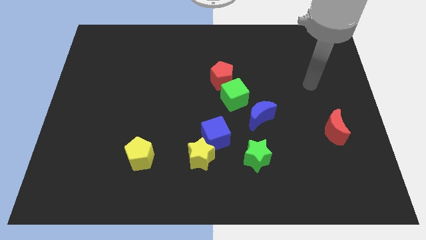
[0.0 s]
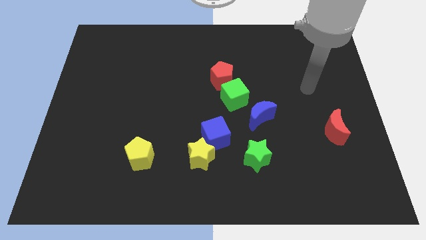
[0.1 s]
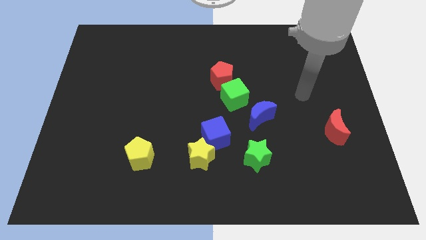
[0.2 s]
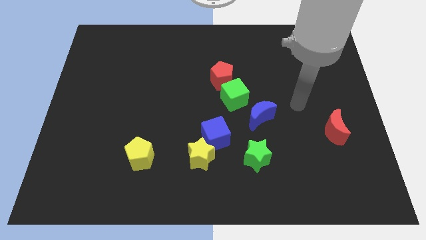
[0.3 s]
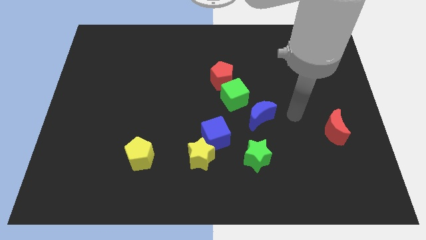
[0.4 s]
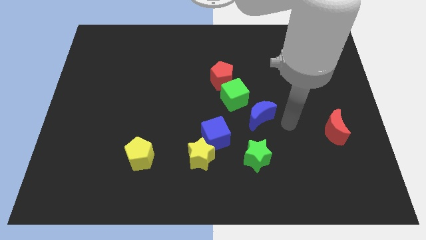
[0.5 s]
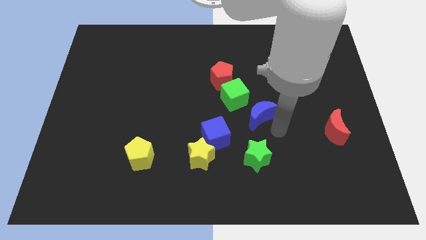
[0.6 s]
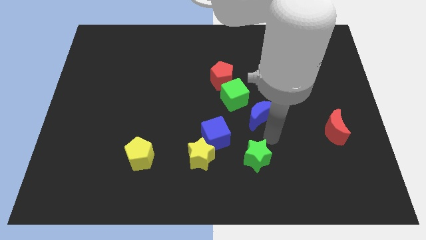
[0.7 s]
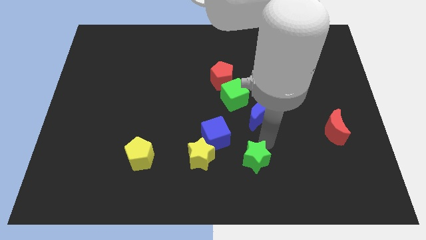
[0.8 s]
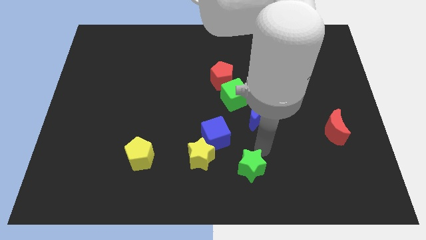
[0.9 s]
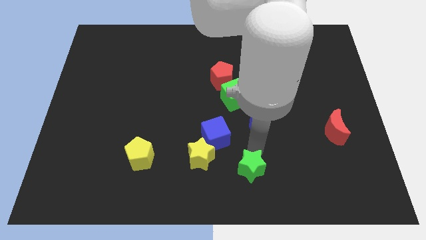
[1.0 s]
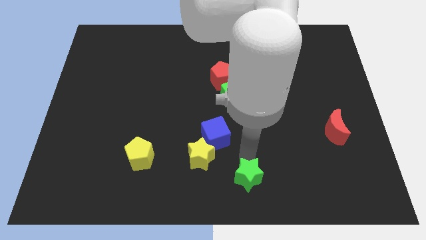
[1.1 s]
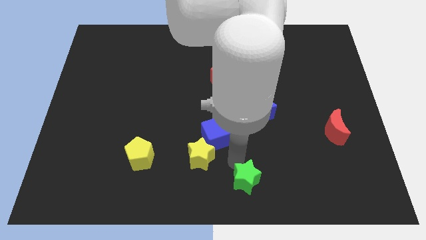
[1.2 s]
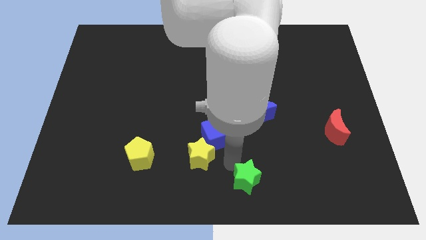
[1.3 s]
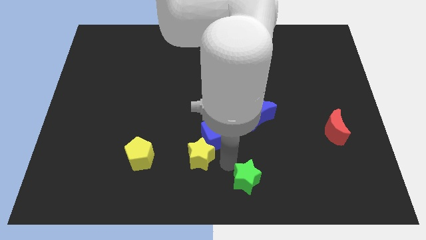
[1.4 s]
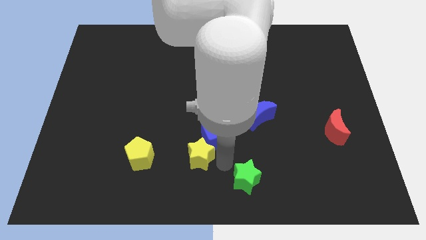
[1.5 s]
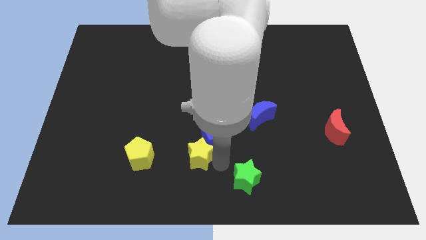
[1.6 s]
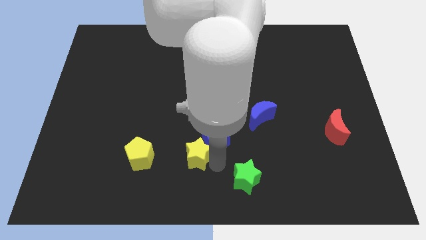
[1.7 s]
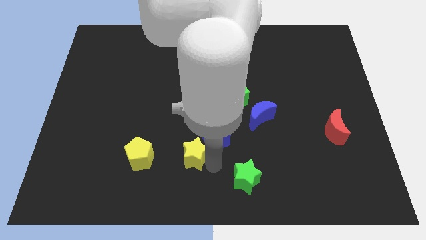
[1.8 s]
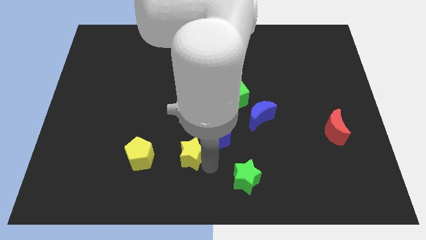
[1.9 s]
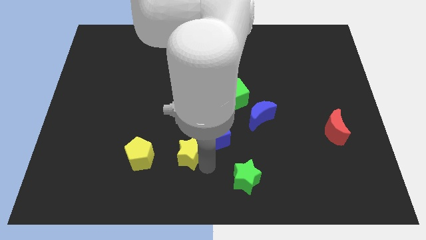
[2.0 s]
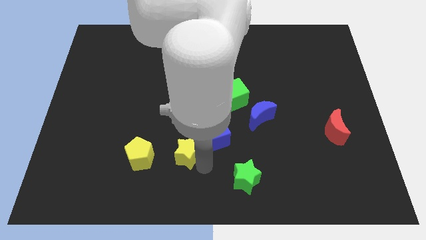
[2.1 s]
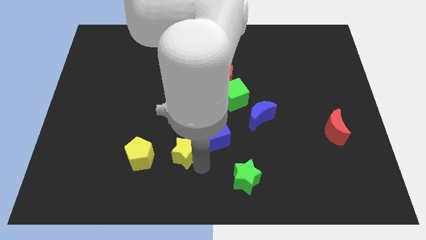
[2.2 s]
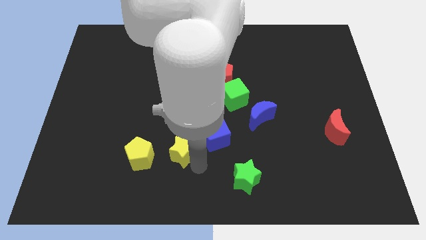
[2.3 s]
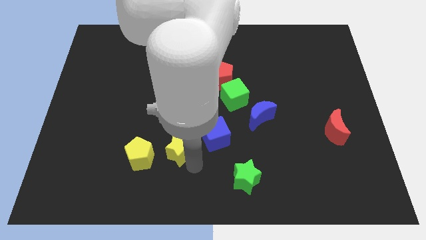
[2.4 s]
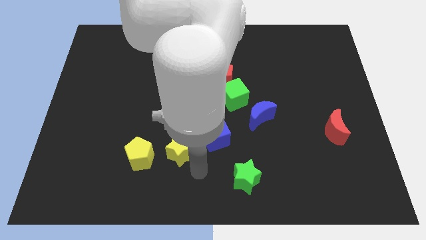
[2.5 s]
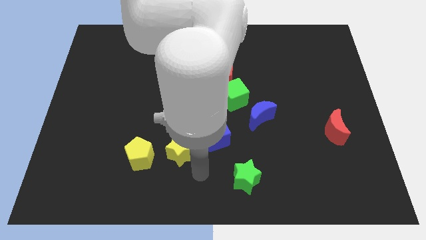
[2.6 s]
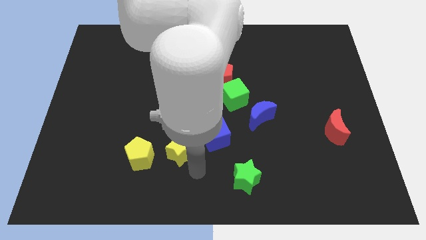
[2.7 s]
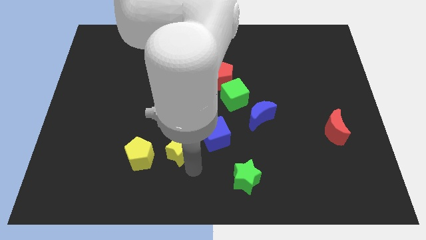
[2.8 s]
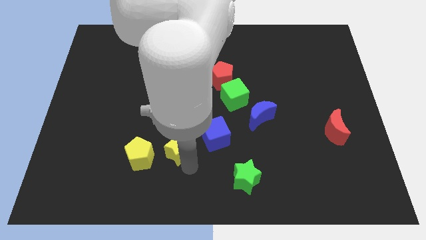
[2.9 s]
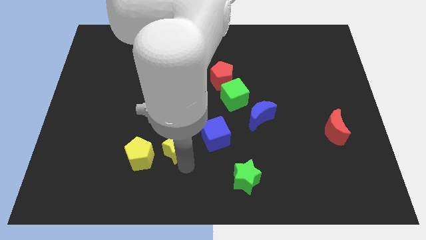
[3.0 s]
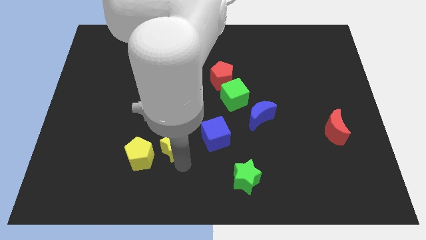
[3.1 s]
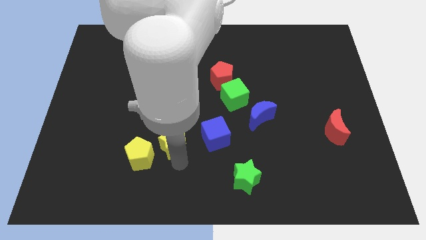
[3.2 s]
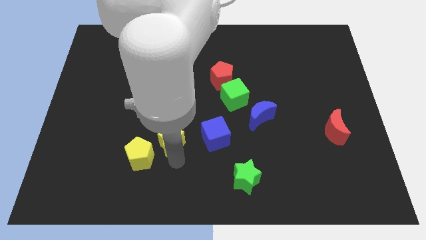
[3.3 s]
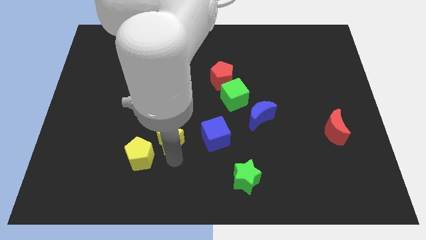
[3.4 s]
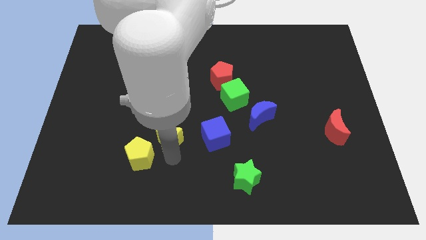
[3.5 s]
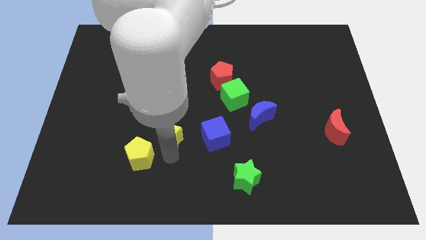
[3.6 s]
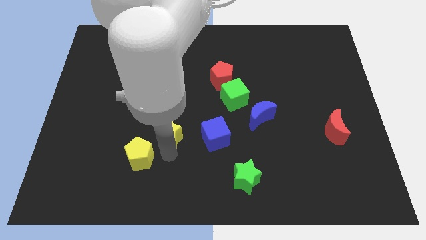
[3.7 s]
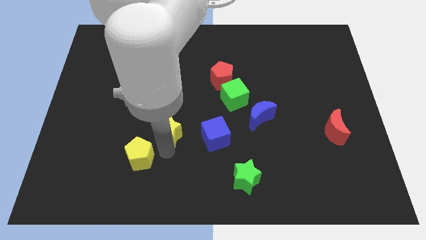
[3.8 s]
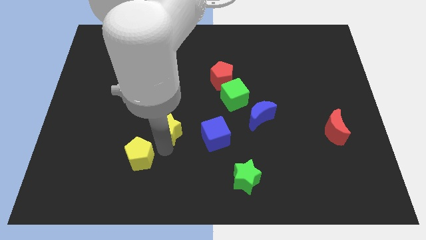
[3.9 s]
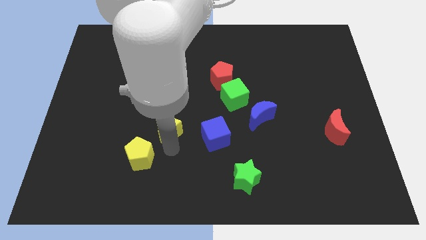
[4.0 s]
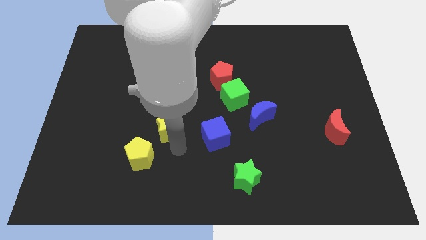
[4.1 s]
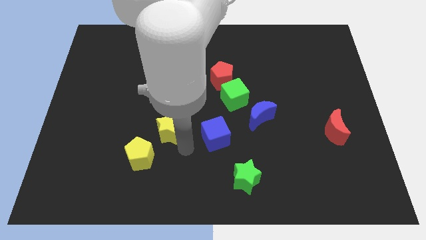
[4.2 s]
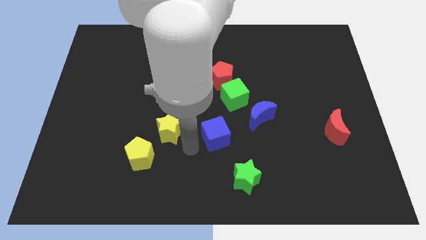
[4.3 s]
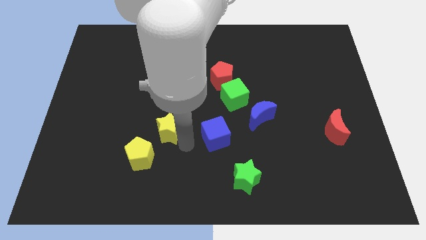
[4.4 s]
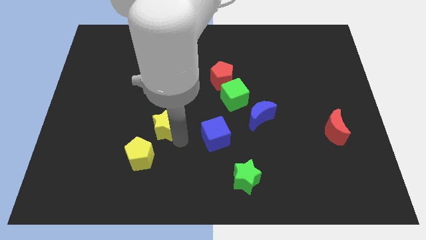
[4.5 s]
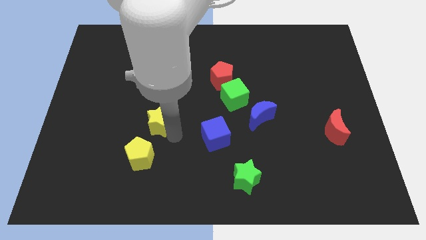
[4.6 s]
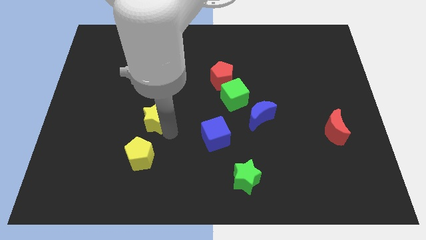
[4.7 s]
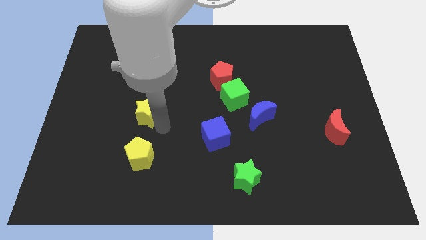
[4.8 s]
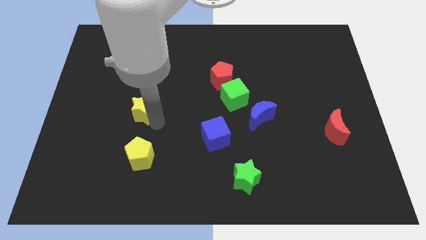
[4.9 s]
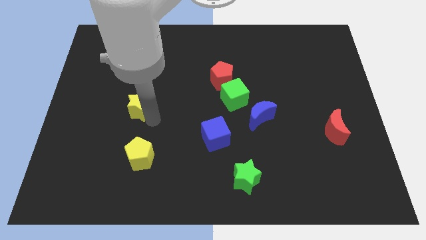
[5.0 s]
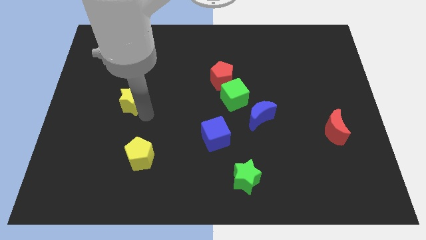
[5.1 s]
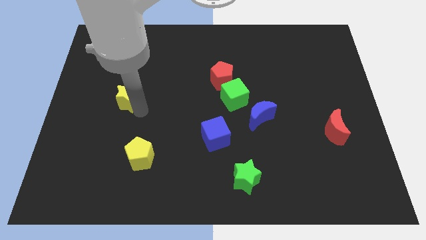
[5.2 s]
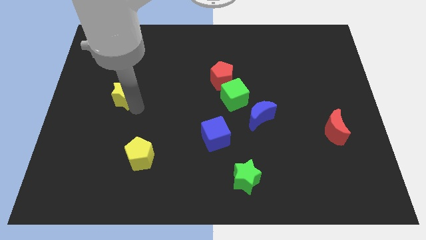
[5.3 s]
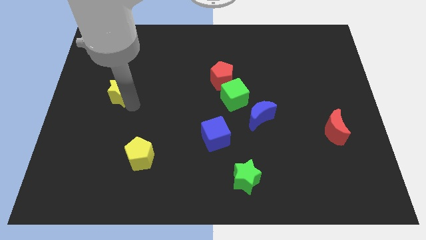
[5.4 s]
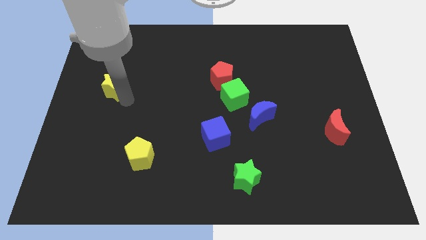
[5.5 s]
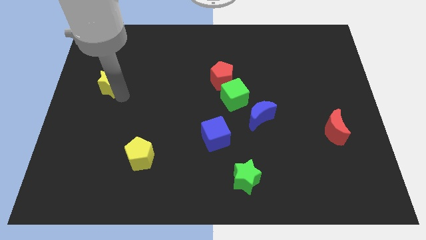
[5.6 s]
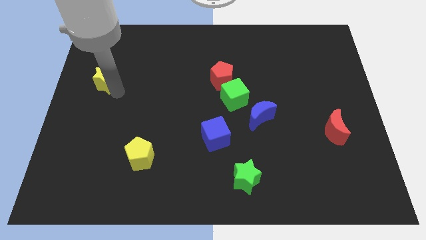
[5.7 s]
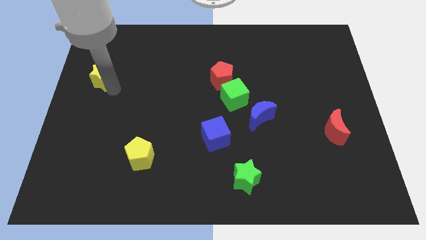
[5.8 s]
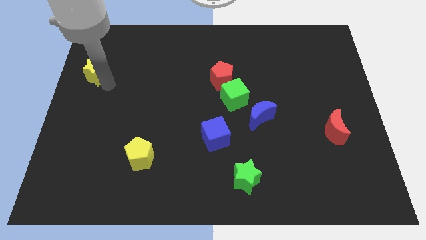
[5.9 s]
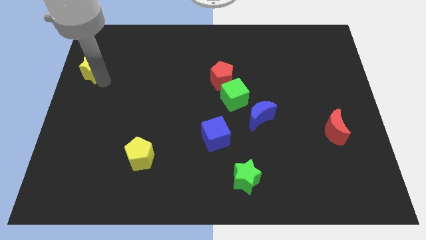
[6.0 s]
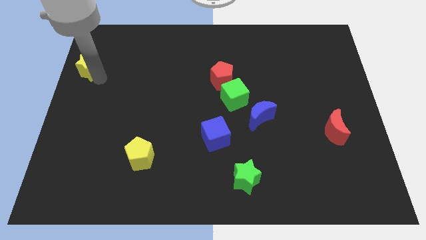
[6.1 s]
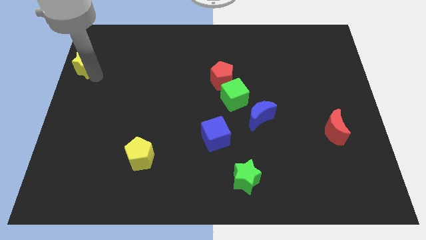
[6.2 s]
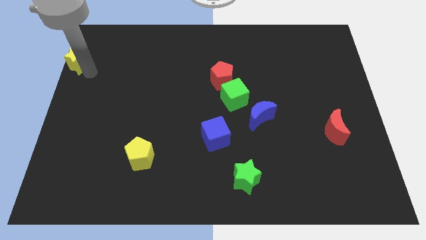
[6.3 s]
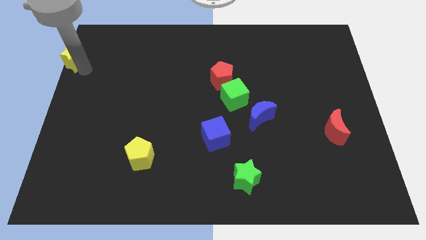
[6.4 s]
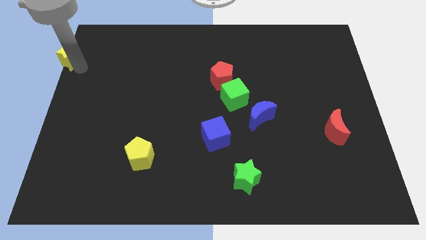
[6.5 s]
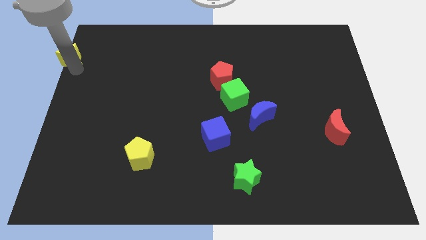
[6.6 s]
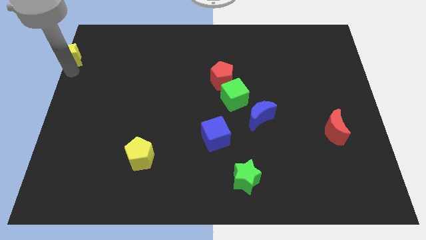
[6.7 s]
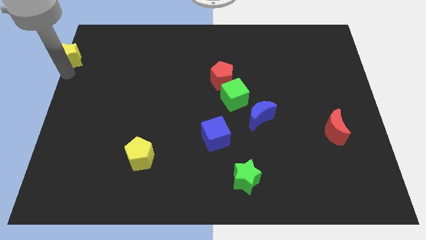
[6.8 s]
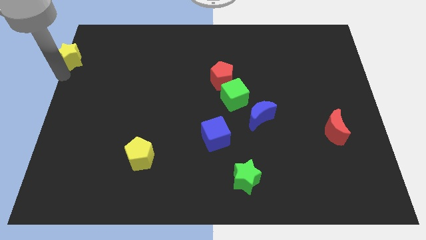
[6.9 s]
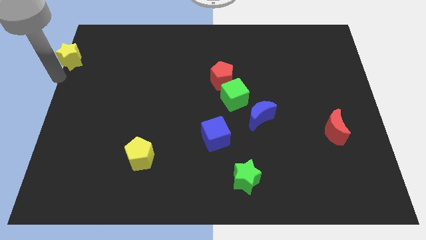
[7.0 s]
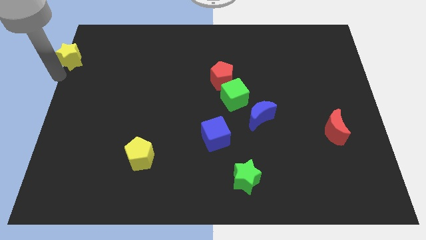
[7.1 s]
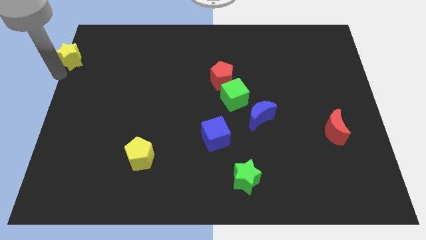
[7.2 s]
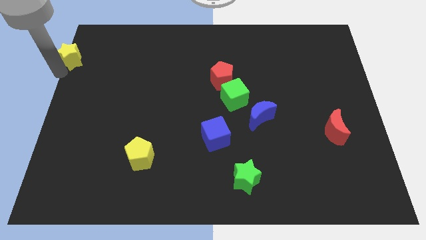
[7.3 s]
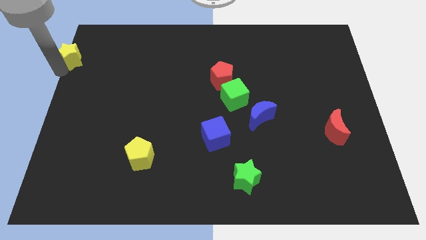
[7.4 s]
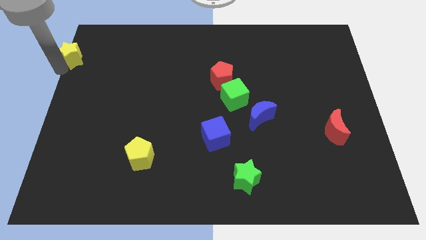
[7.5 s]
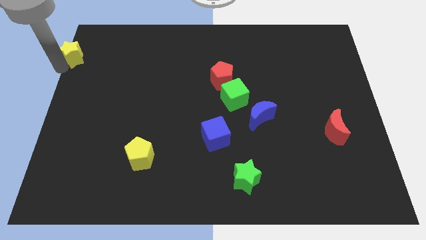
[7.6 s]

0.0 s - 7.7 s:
put the yellow star to the top left corner
